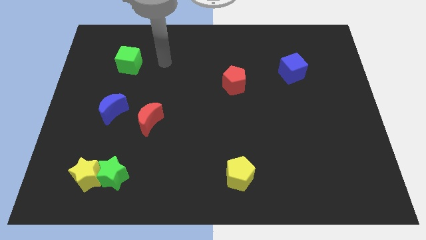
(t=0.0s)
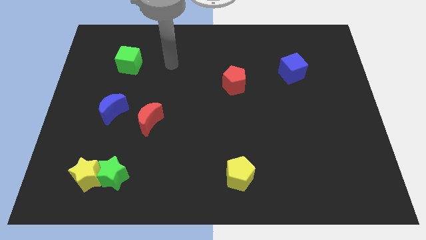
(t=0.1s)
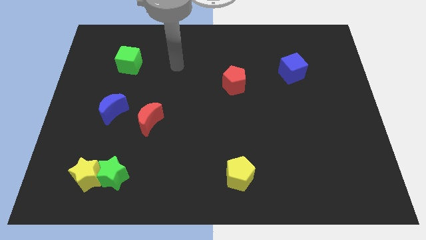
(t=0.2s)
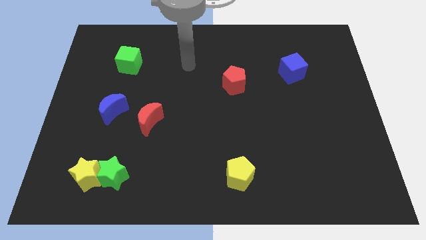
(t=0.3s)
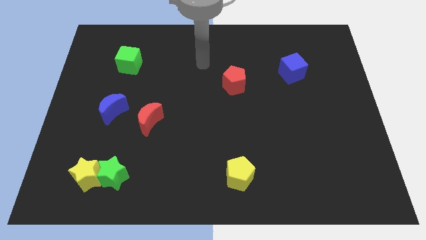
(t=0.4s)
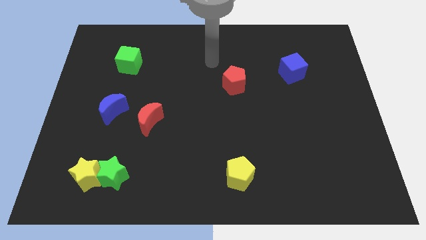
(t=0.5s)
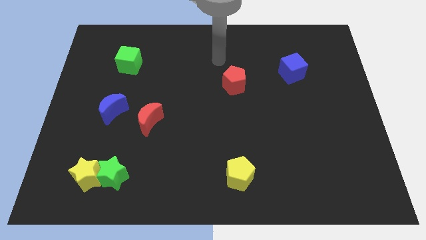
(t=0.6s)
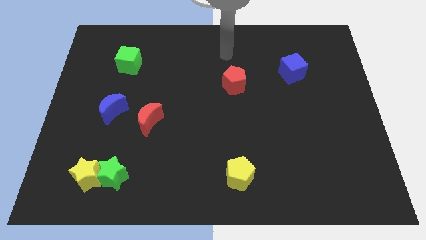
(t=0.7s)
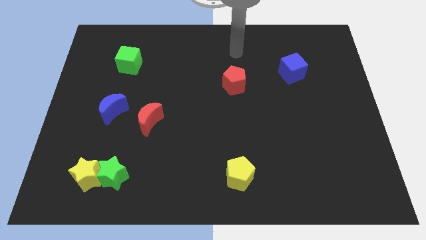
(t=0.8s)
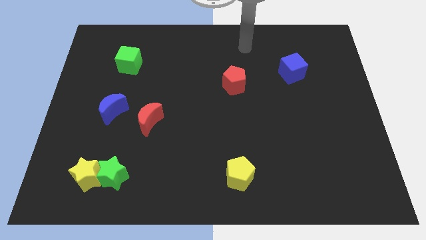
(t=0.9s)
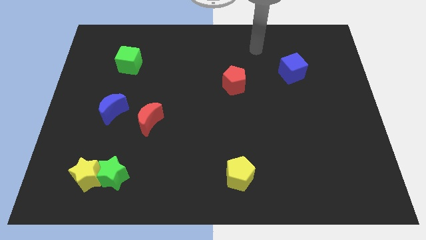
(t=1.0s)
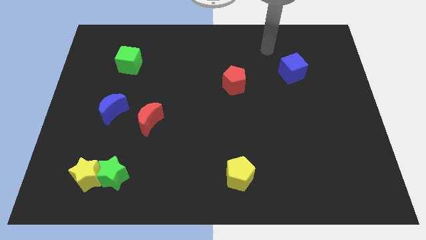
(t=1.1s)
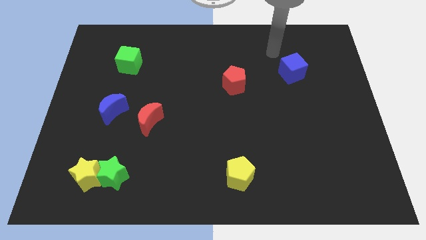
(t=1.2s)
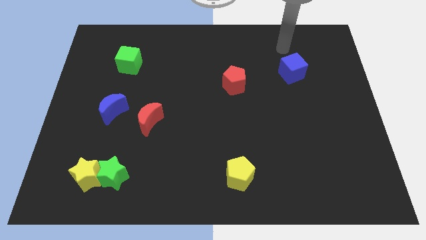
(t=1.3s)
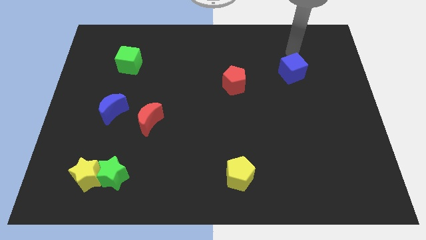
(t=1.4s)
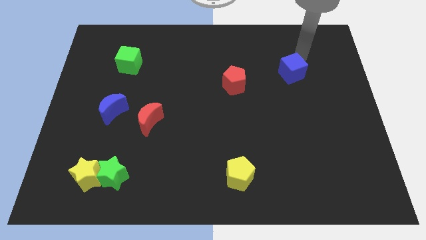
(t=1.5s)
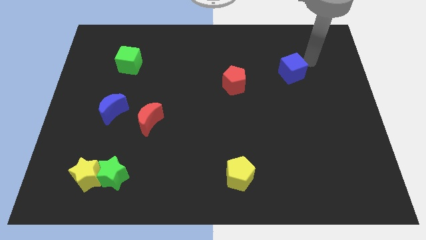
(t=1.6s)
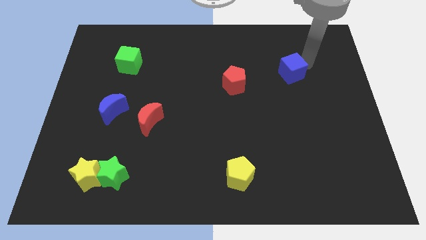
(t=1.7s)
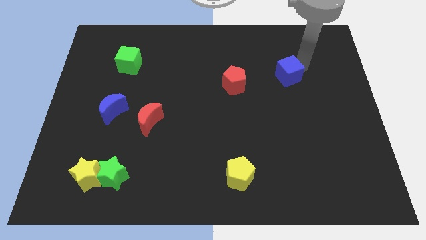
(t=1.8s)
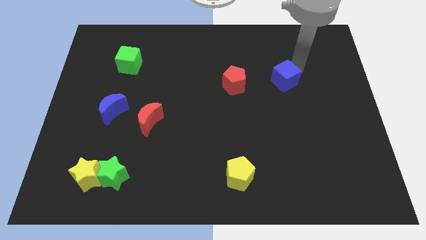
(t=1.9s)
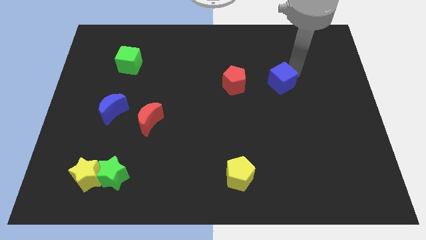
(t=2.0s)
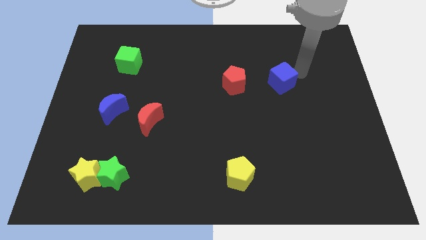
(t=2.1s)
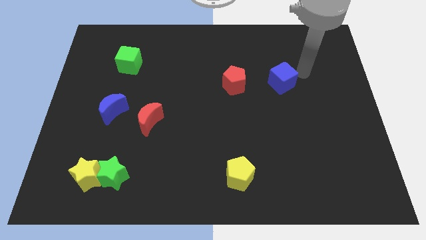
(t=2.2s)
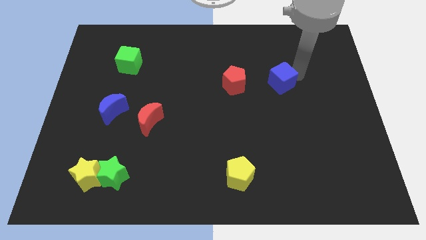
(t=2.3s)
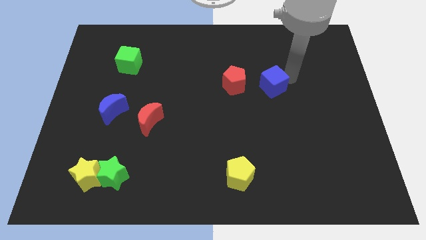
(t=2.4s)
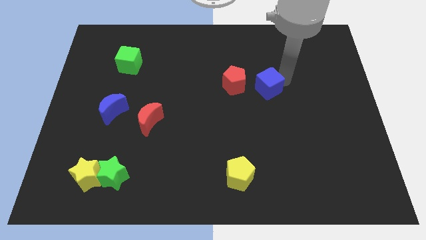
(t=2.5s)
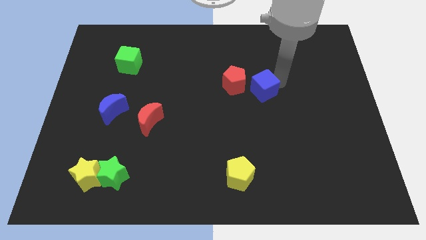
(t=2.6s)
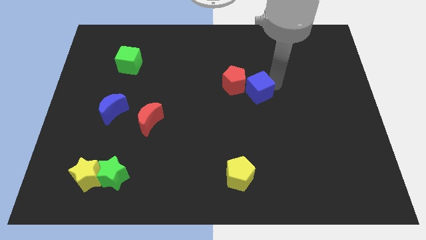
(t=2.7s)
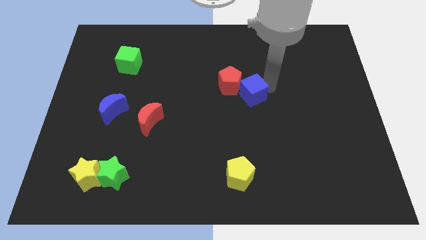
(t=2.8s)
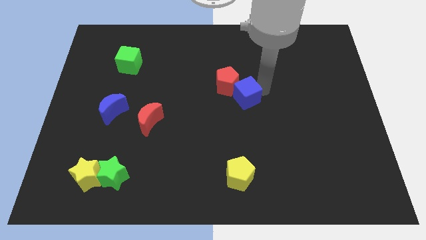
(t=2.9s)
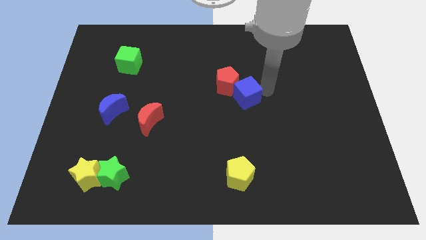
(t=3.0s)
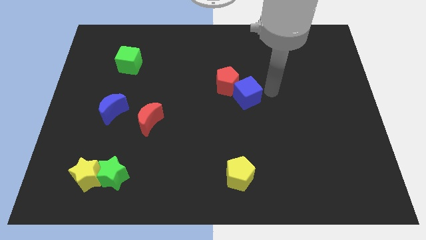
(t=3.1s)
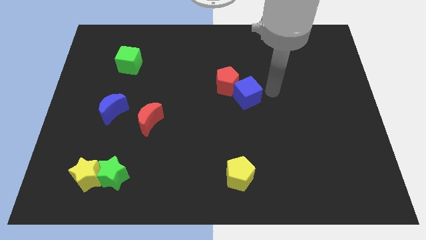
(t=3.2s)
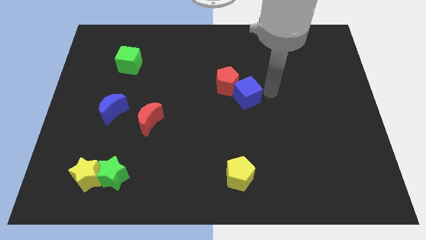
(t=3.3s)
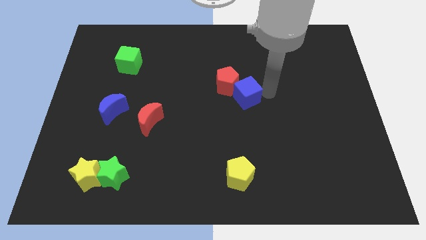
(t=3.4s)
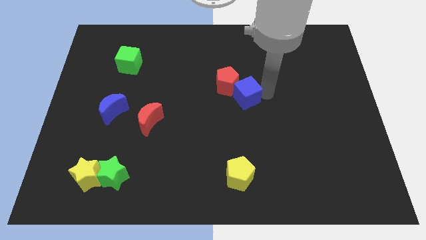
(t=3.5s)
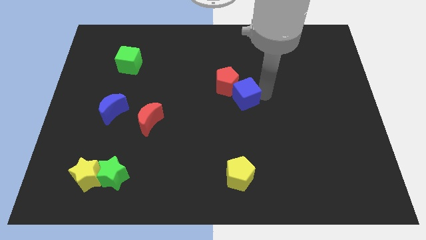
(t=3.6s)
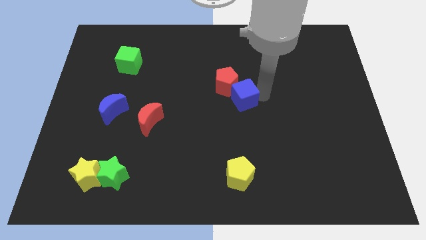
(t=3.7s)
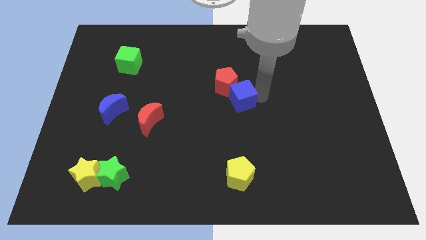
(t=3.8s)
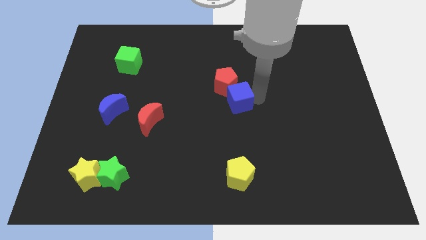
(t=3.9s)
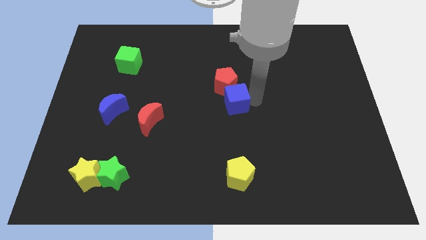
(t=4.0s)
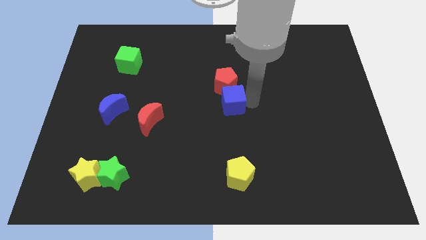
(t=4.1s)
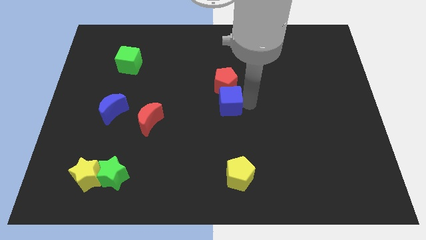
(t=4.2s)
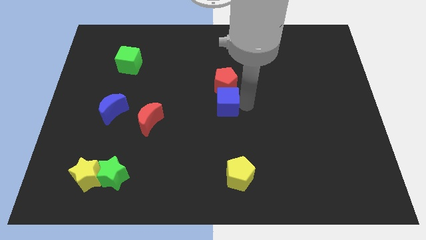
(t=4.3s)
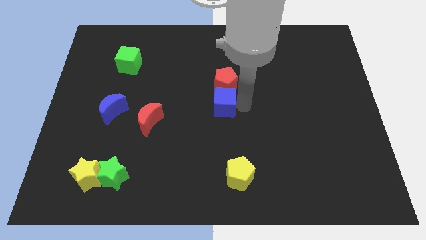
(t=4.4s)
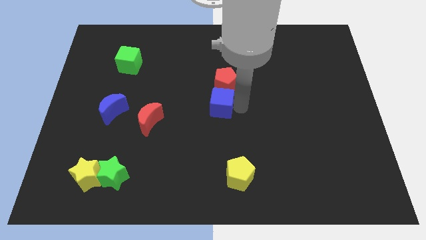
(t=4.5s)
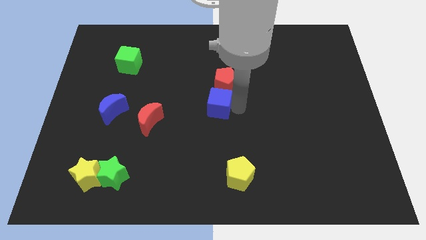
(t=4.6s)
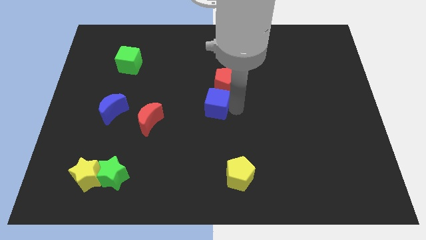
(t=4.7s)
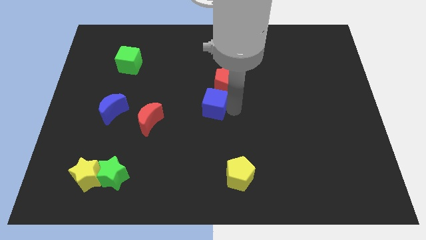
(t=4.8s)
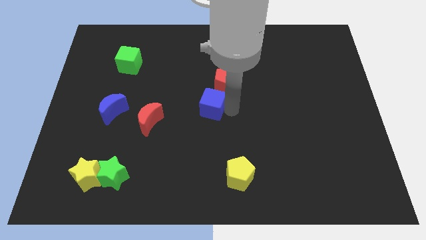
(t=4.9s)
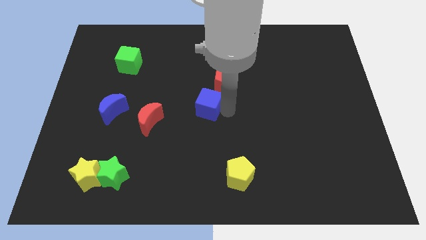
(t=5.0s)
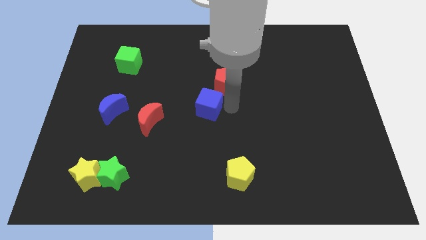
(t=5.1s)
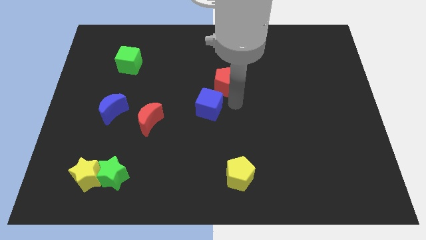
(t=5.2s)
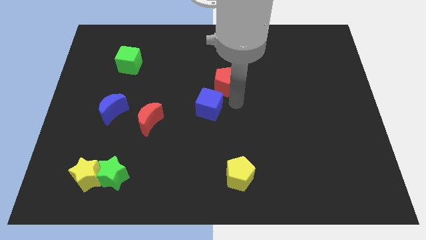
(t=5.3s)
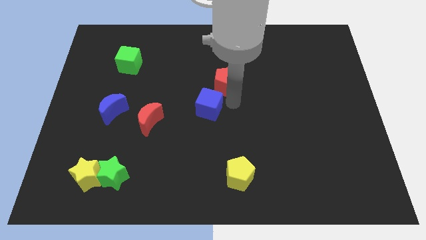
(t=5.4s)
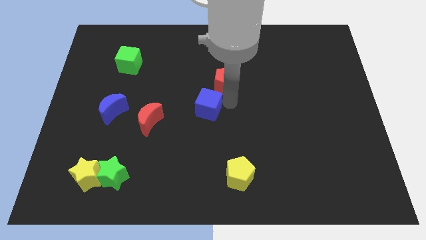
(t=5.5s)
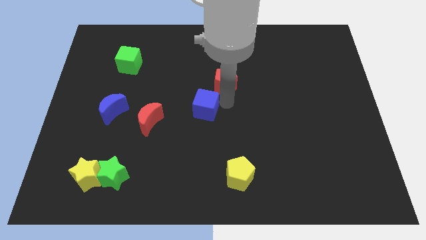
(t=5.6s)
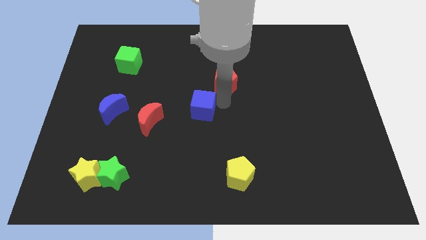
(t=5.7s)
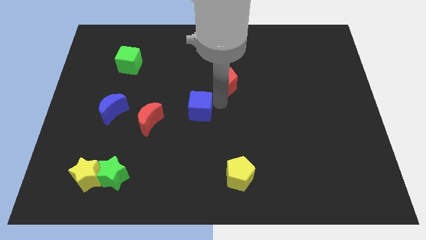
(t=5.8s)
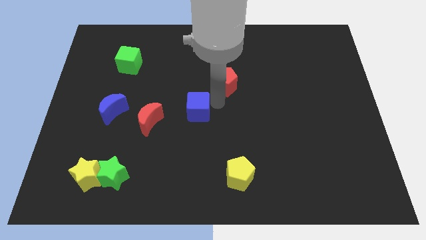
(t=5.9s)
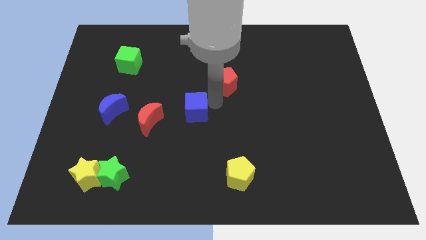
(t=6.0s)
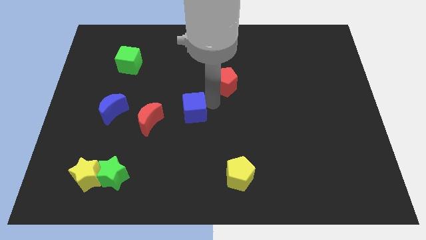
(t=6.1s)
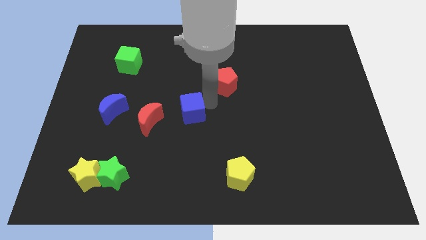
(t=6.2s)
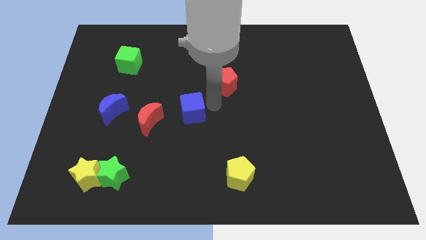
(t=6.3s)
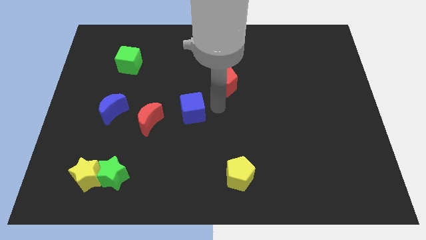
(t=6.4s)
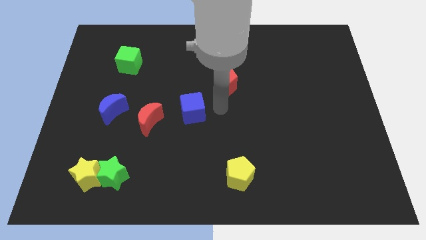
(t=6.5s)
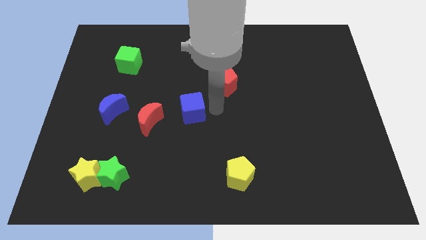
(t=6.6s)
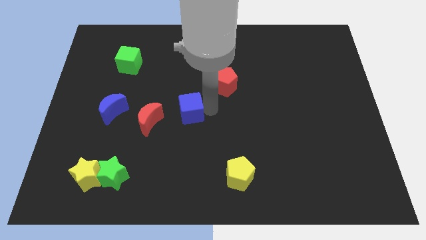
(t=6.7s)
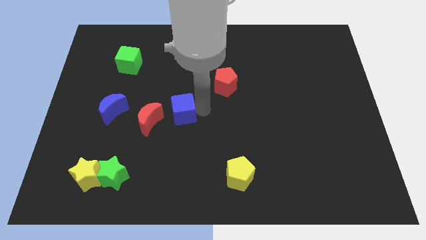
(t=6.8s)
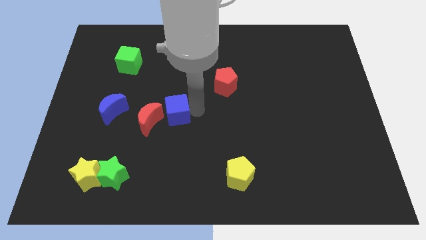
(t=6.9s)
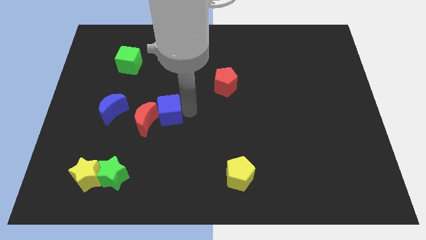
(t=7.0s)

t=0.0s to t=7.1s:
push the blue cube next to the red moon
